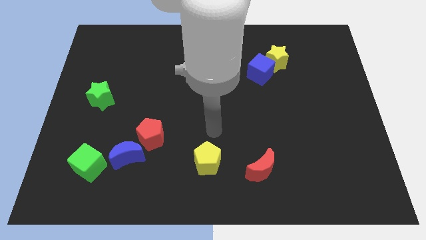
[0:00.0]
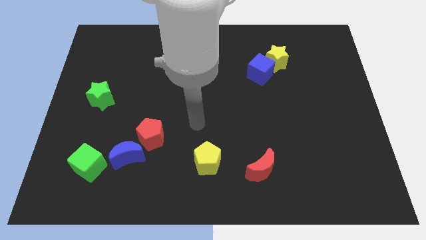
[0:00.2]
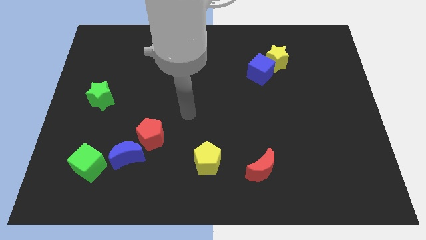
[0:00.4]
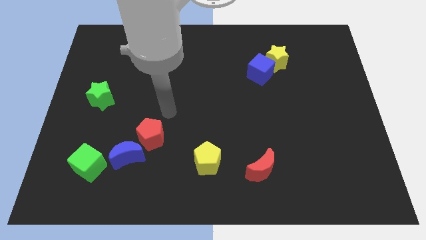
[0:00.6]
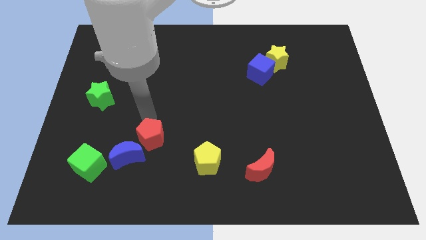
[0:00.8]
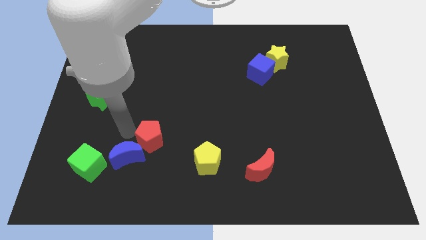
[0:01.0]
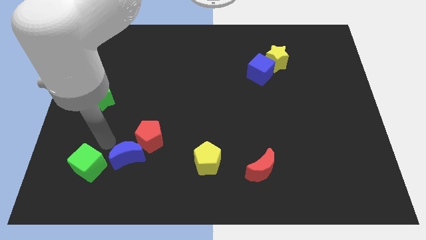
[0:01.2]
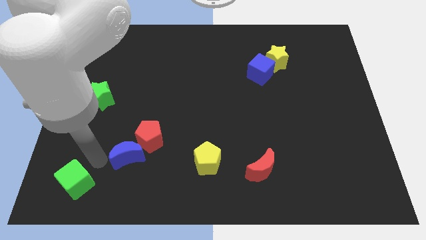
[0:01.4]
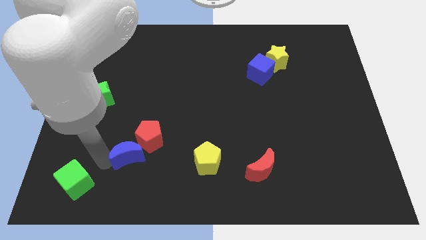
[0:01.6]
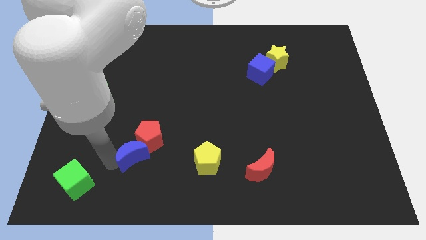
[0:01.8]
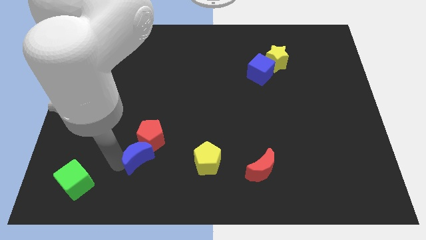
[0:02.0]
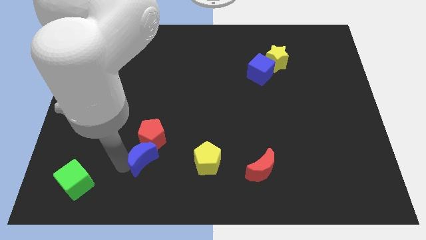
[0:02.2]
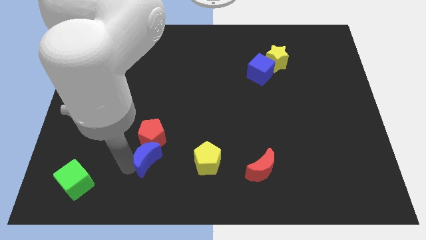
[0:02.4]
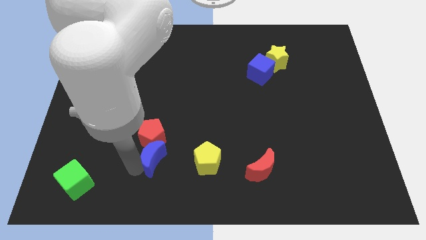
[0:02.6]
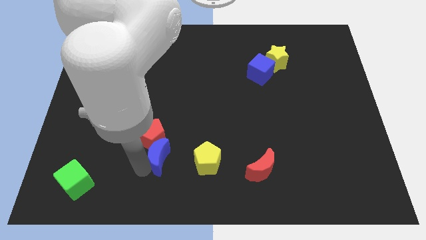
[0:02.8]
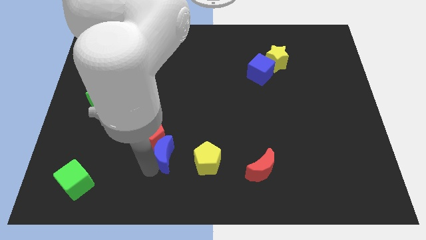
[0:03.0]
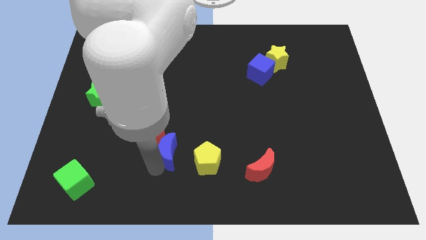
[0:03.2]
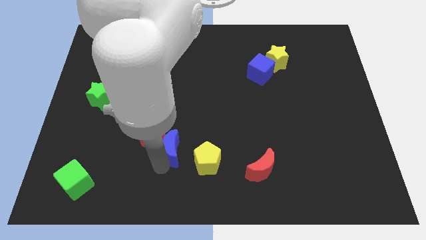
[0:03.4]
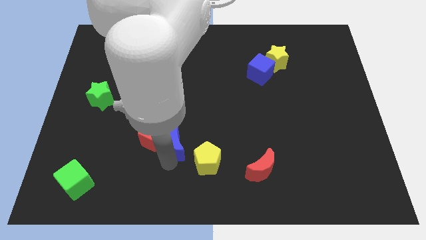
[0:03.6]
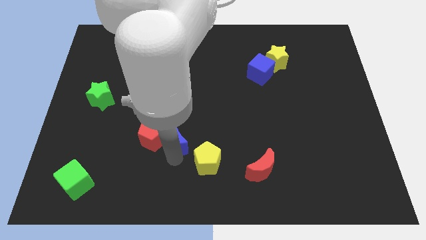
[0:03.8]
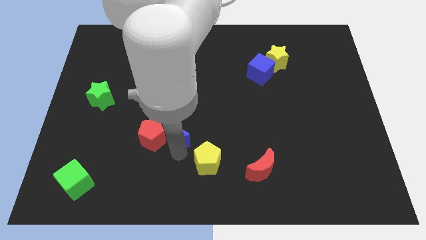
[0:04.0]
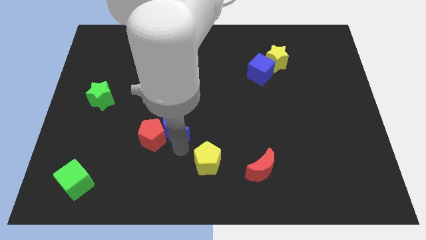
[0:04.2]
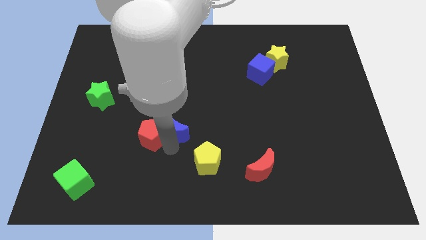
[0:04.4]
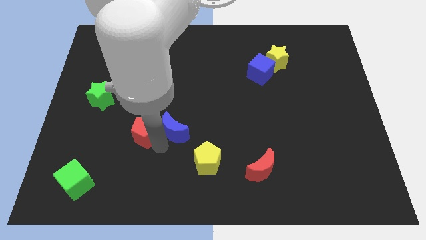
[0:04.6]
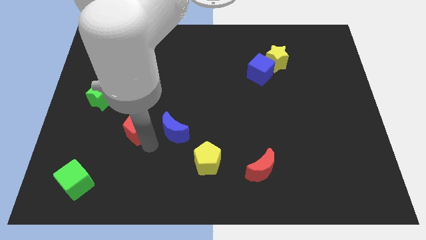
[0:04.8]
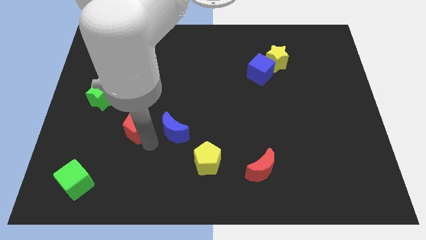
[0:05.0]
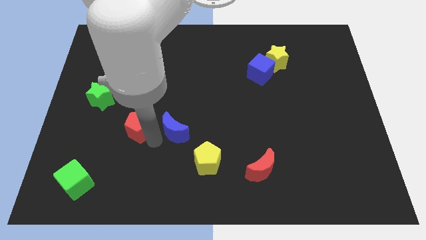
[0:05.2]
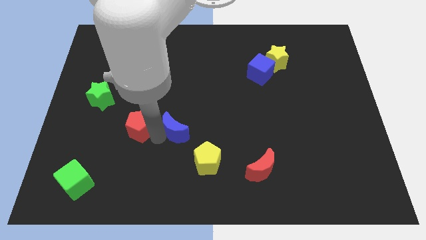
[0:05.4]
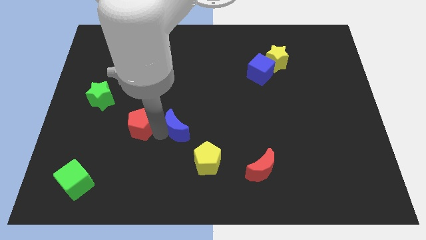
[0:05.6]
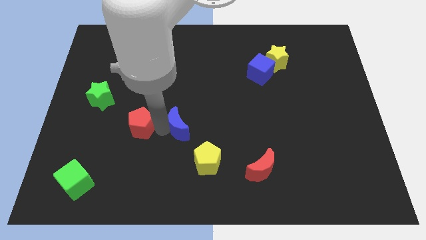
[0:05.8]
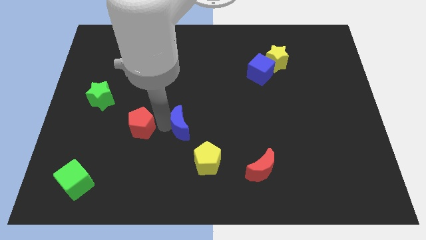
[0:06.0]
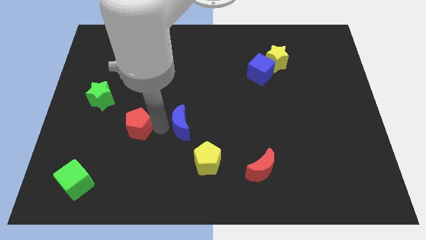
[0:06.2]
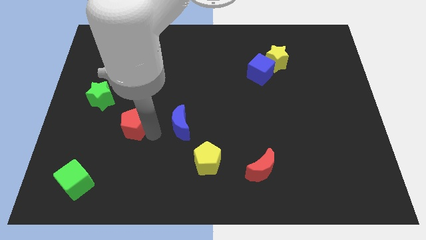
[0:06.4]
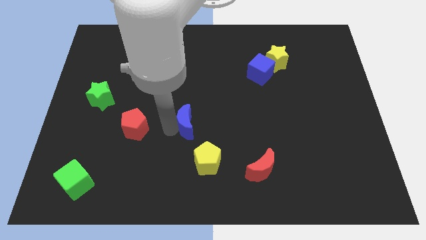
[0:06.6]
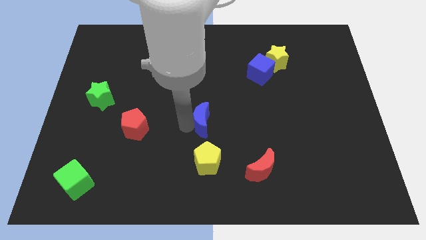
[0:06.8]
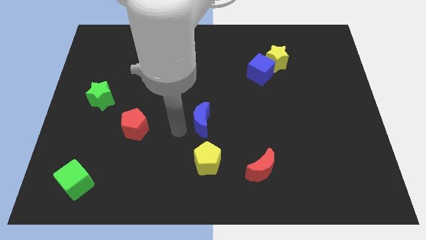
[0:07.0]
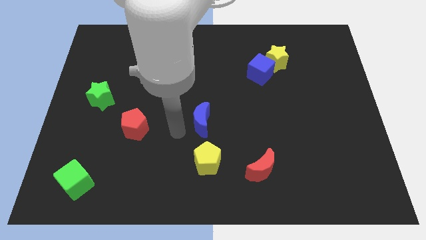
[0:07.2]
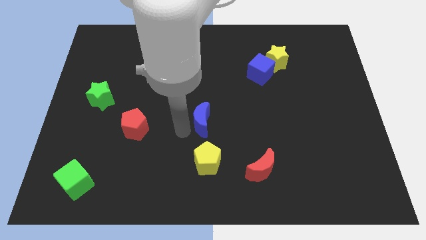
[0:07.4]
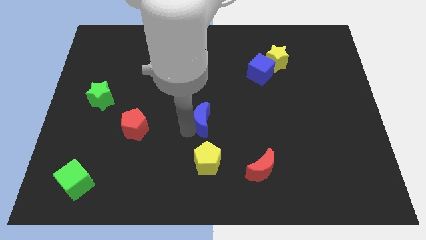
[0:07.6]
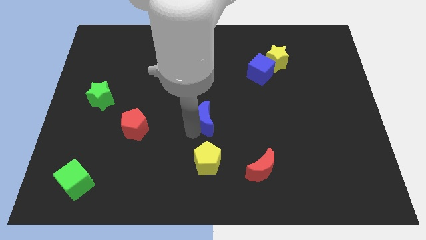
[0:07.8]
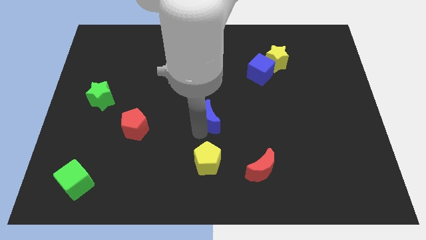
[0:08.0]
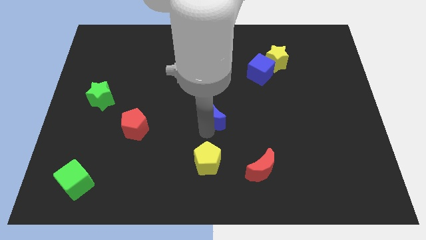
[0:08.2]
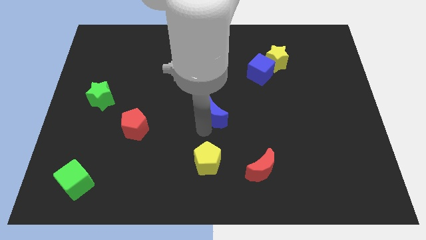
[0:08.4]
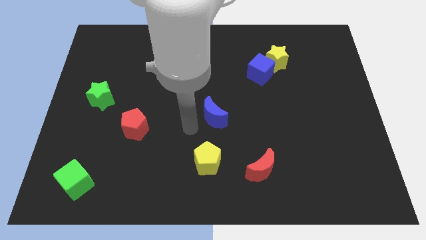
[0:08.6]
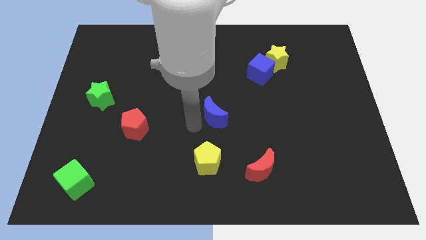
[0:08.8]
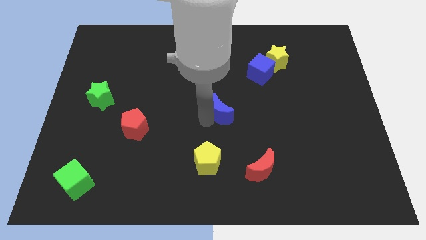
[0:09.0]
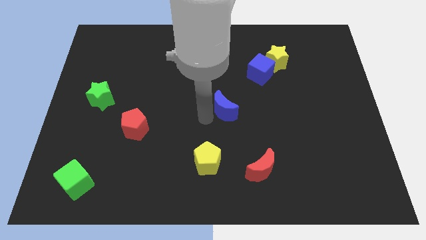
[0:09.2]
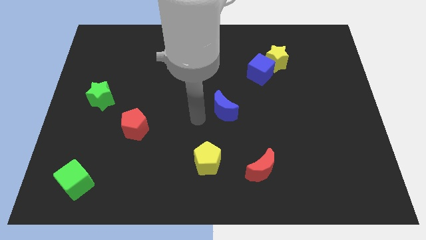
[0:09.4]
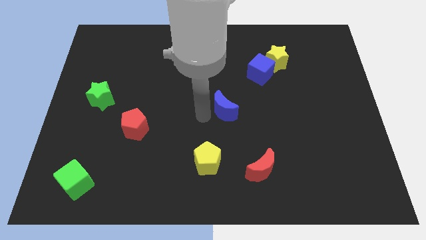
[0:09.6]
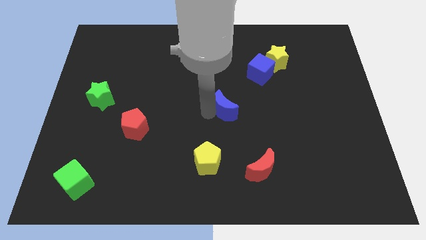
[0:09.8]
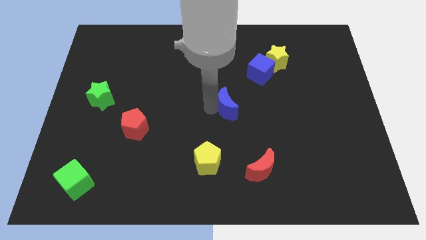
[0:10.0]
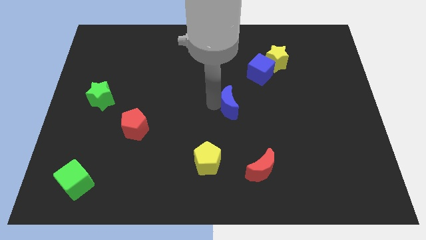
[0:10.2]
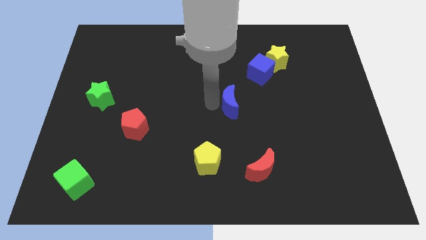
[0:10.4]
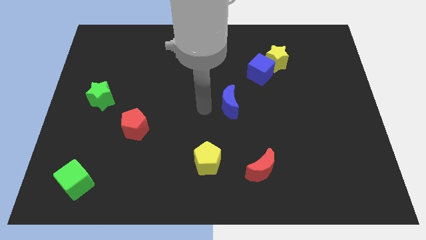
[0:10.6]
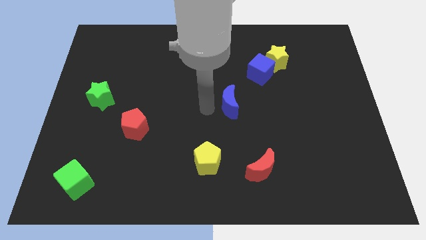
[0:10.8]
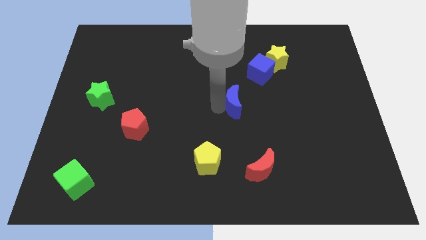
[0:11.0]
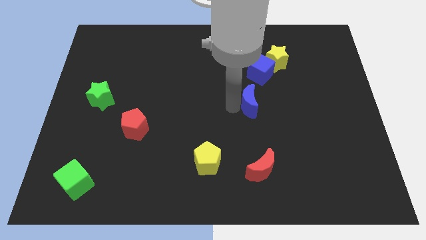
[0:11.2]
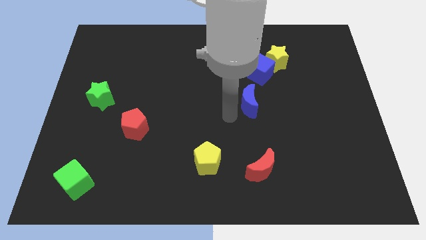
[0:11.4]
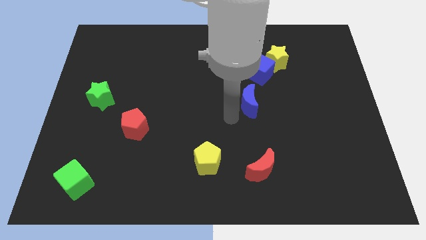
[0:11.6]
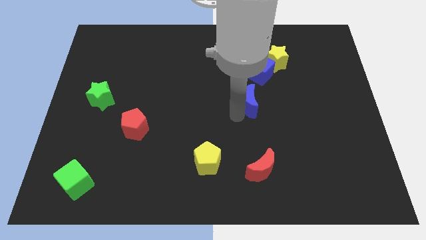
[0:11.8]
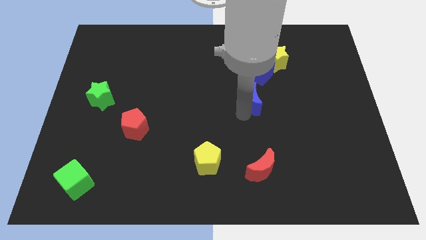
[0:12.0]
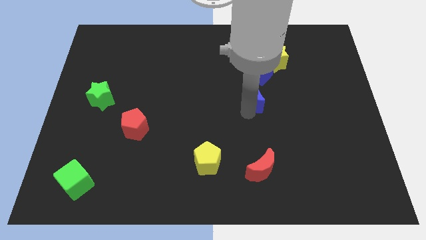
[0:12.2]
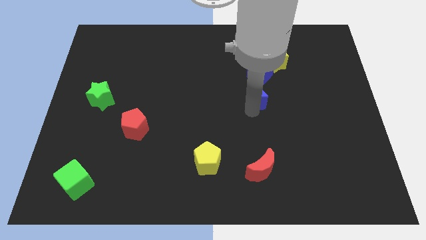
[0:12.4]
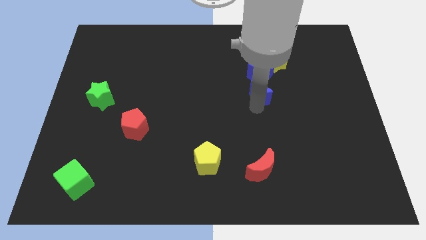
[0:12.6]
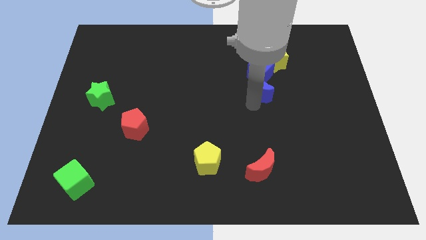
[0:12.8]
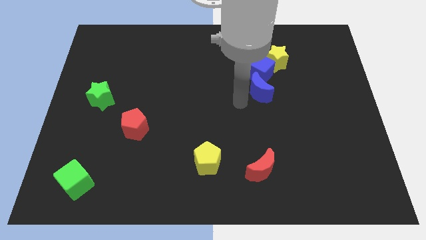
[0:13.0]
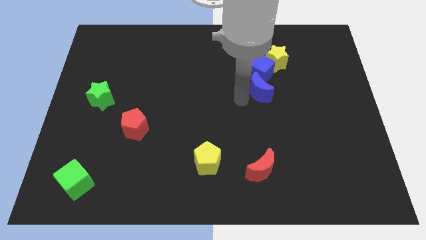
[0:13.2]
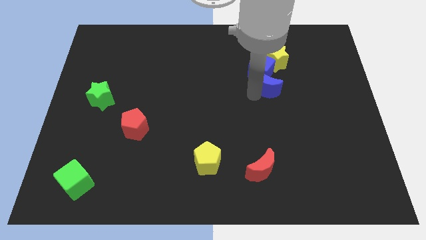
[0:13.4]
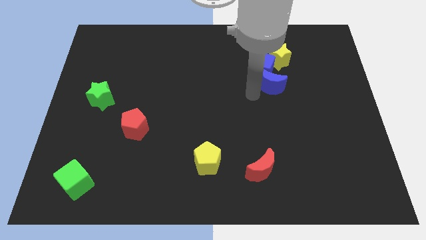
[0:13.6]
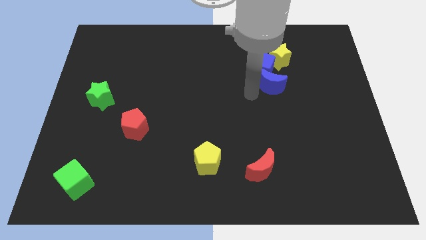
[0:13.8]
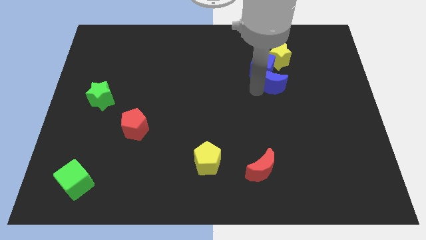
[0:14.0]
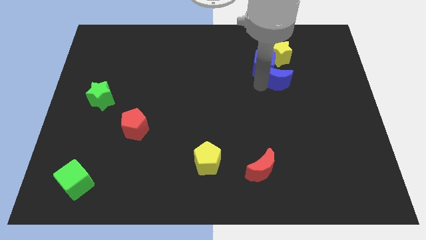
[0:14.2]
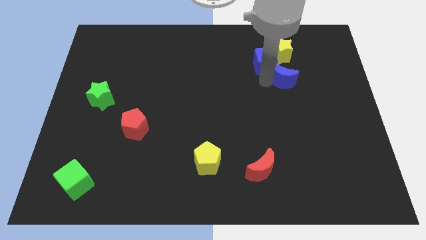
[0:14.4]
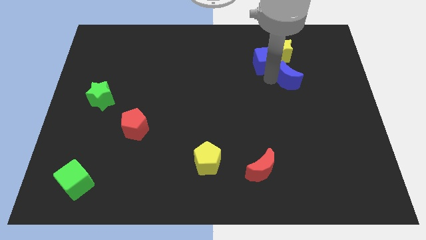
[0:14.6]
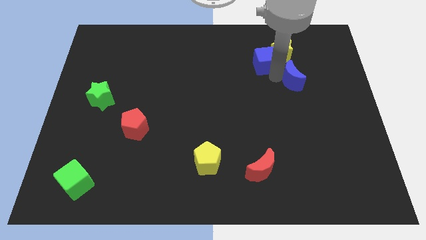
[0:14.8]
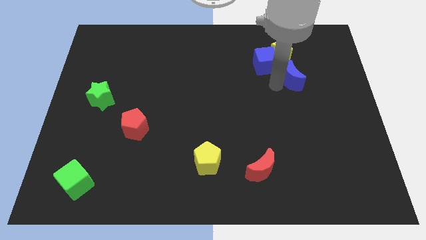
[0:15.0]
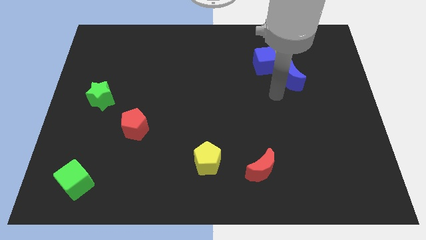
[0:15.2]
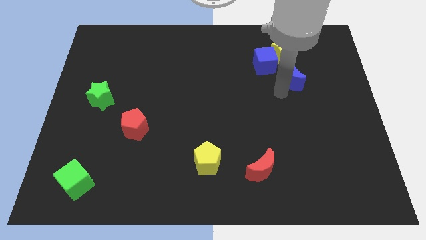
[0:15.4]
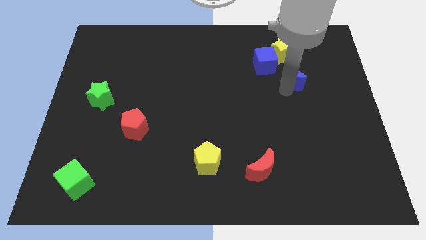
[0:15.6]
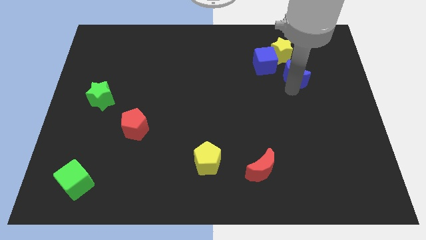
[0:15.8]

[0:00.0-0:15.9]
move the blue moon diagonally down and to the right of the yellow star
